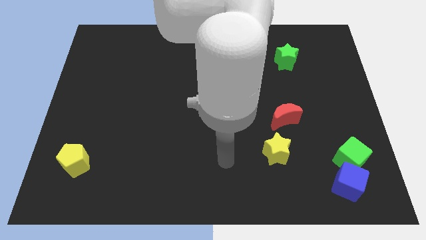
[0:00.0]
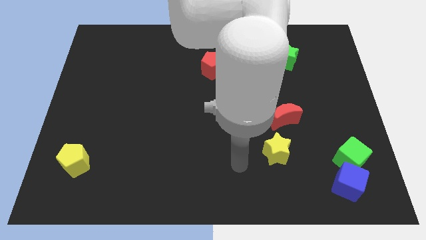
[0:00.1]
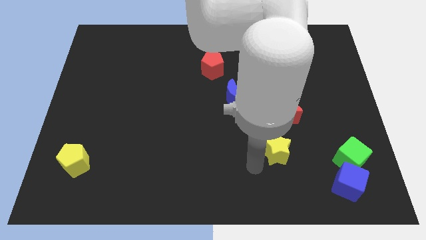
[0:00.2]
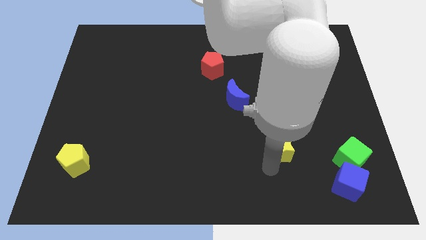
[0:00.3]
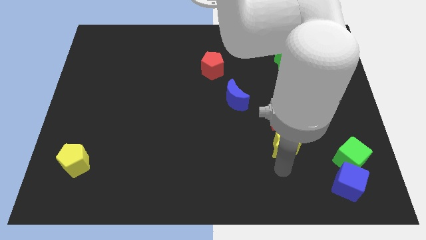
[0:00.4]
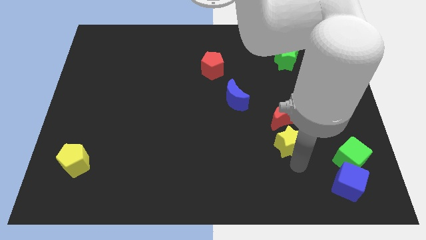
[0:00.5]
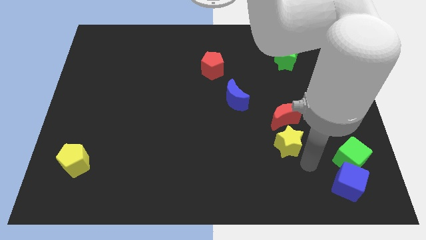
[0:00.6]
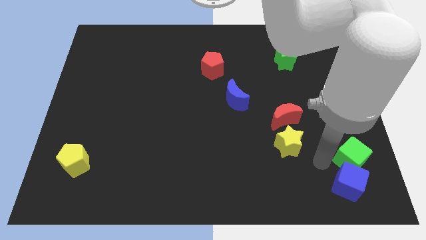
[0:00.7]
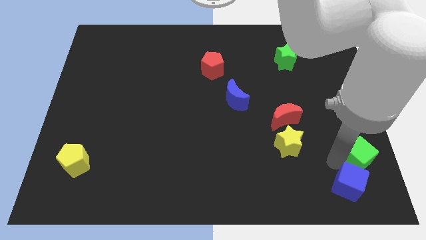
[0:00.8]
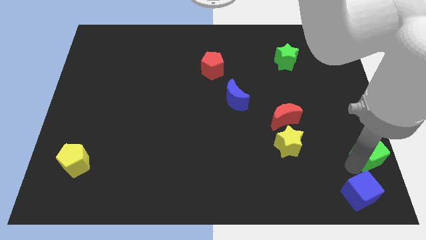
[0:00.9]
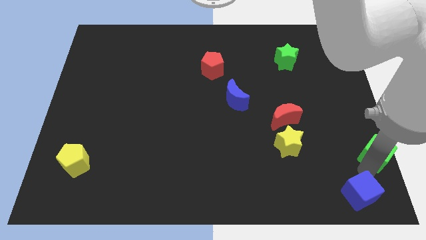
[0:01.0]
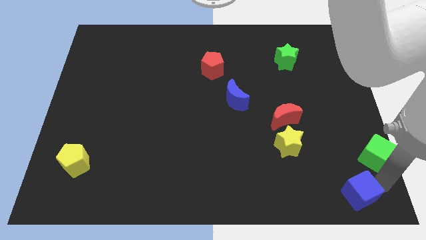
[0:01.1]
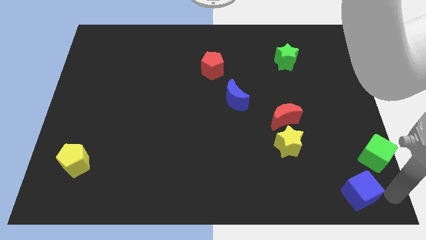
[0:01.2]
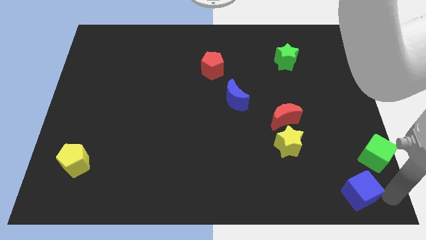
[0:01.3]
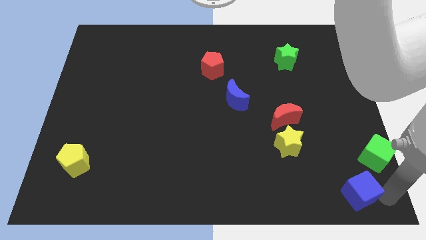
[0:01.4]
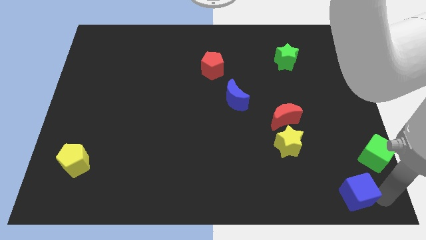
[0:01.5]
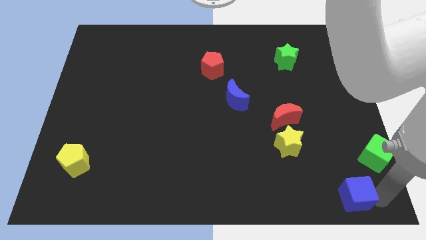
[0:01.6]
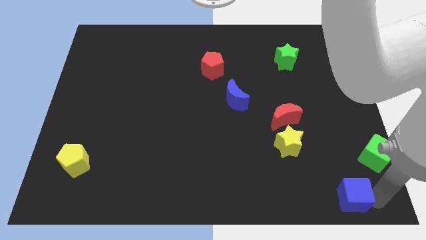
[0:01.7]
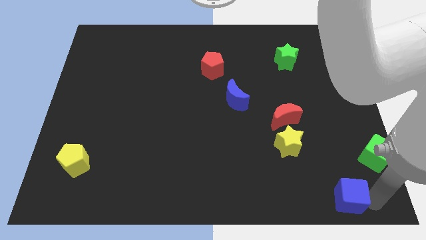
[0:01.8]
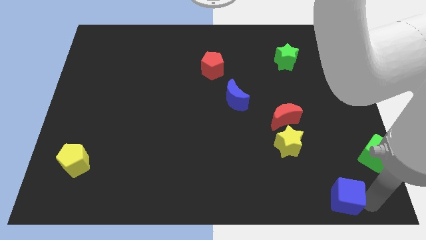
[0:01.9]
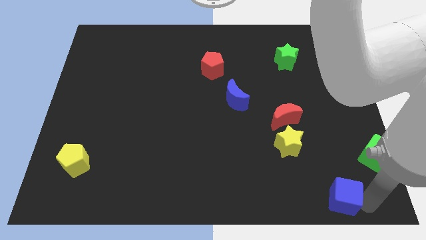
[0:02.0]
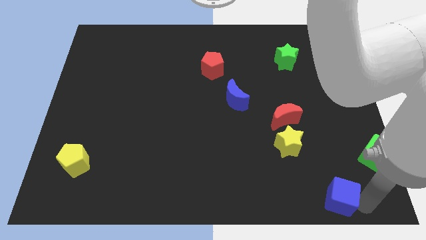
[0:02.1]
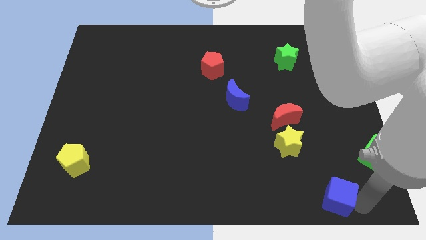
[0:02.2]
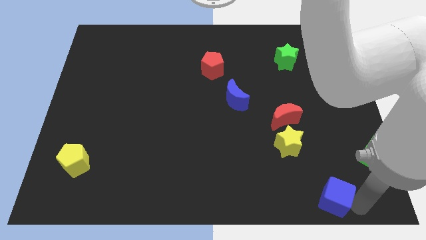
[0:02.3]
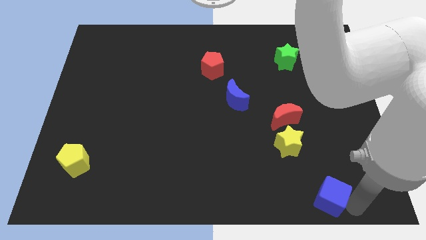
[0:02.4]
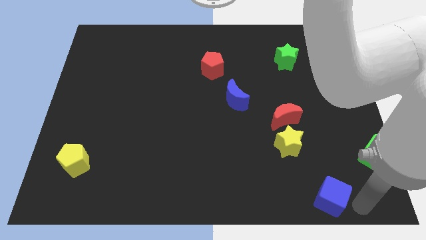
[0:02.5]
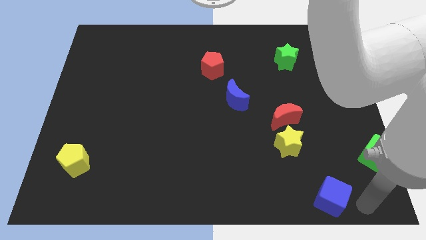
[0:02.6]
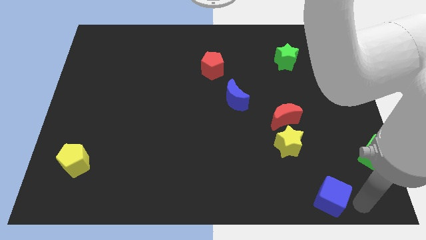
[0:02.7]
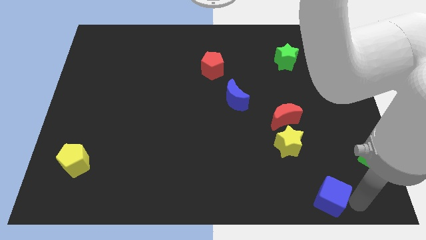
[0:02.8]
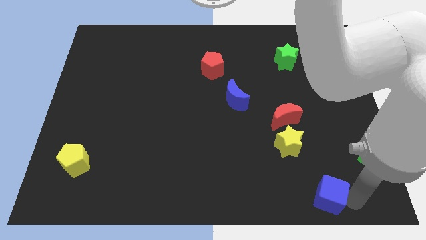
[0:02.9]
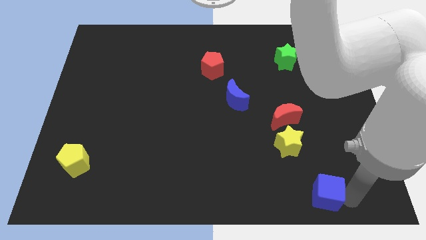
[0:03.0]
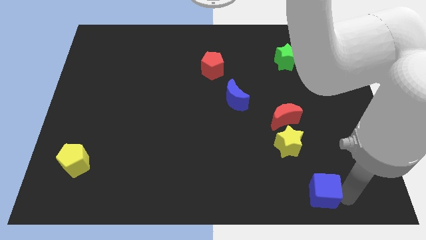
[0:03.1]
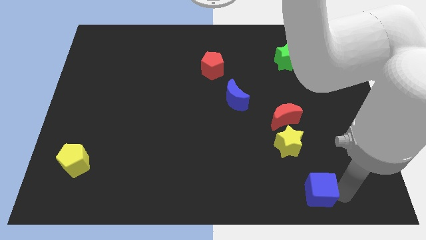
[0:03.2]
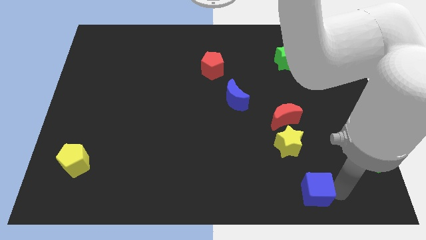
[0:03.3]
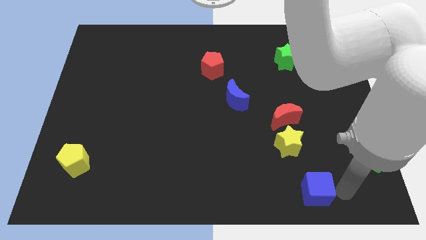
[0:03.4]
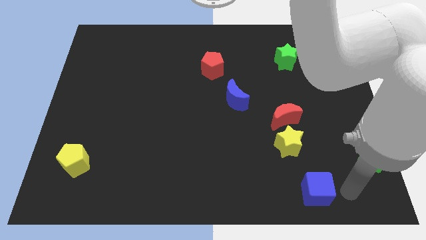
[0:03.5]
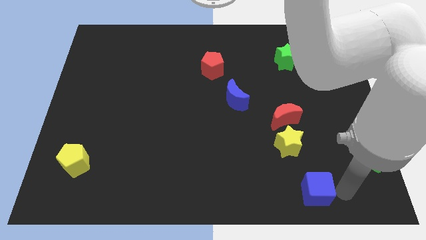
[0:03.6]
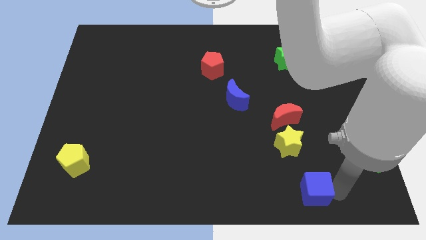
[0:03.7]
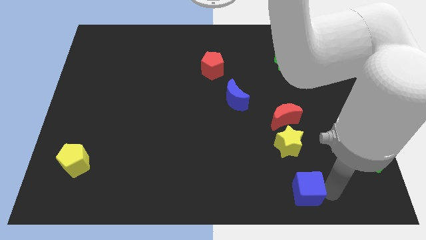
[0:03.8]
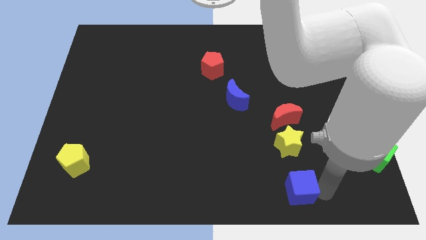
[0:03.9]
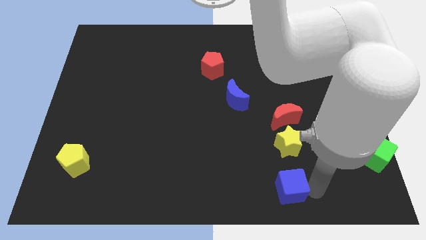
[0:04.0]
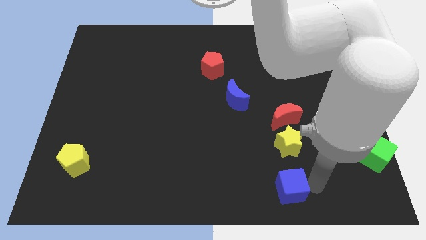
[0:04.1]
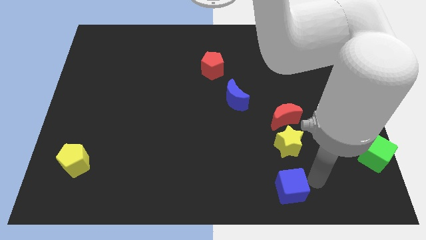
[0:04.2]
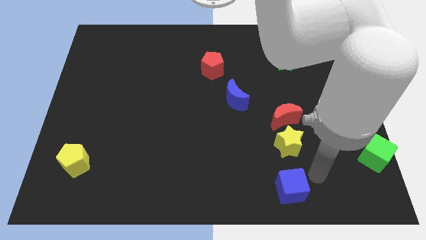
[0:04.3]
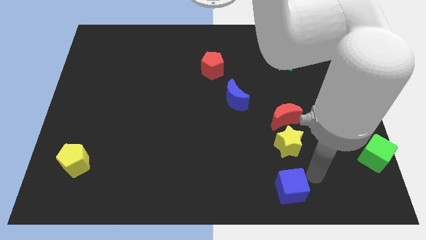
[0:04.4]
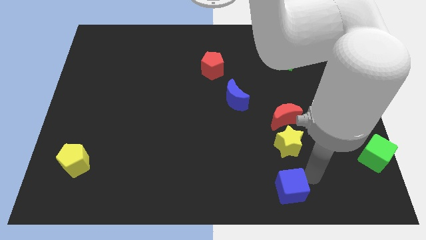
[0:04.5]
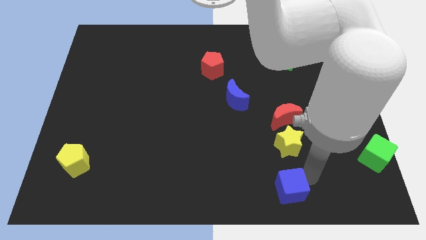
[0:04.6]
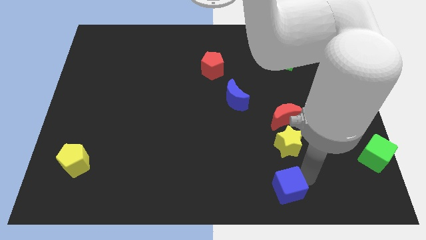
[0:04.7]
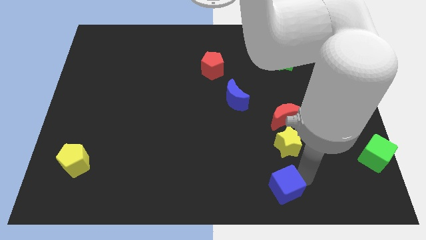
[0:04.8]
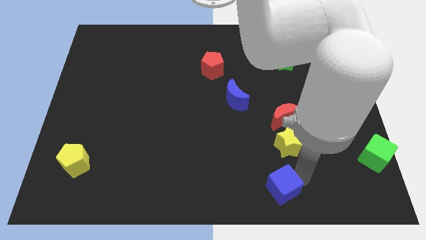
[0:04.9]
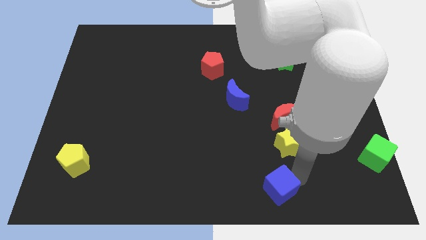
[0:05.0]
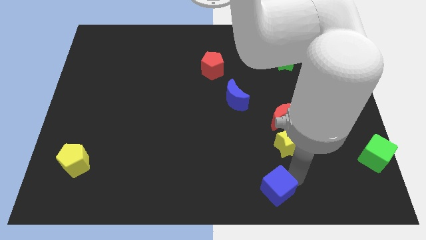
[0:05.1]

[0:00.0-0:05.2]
slide the blue cube to the bottom

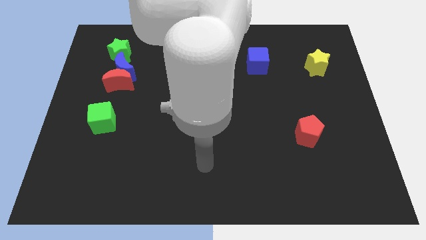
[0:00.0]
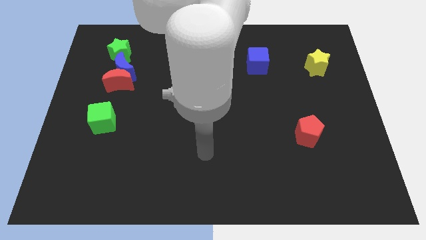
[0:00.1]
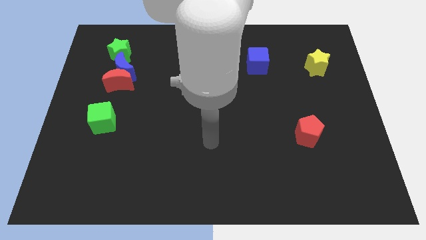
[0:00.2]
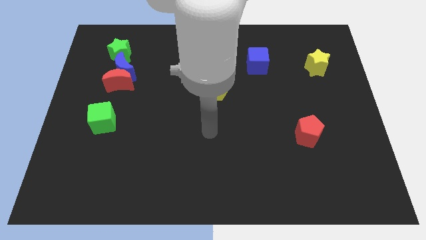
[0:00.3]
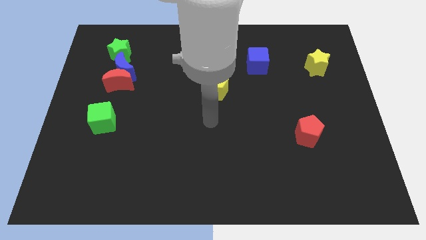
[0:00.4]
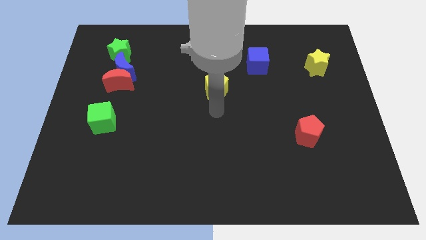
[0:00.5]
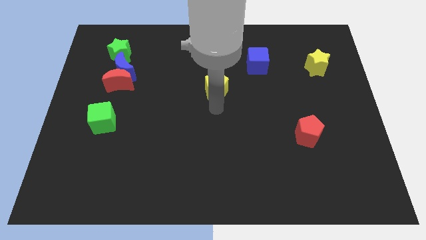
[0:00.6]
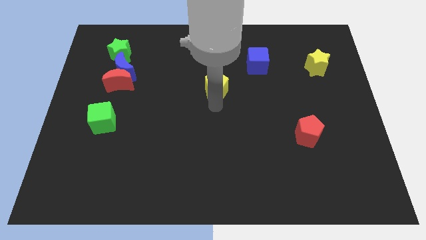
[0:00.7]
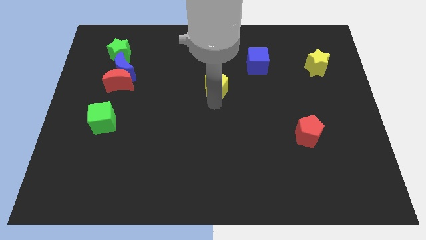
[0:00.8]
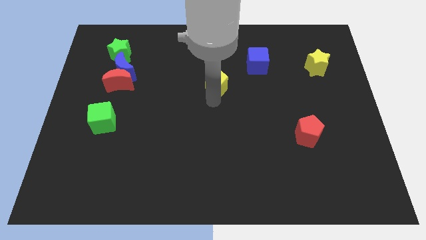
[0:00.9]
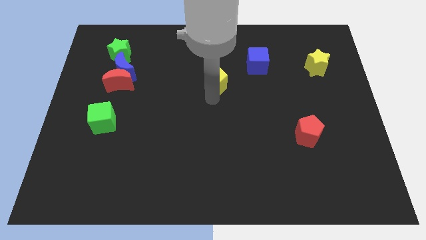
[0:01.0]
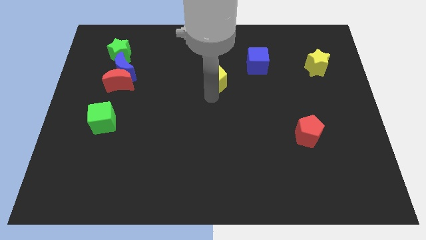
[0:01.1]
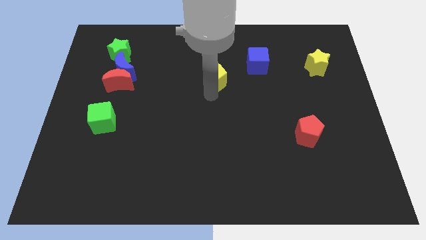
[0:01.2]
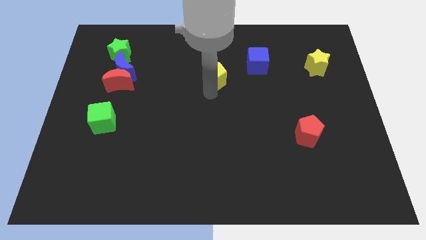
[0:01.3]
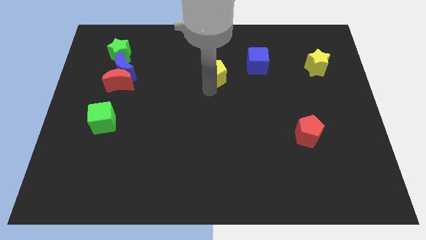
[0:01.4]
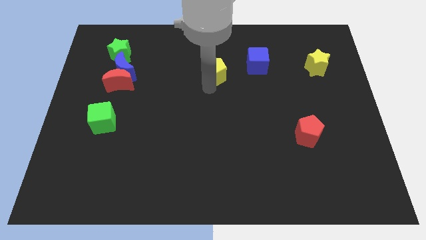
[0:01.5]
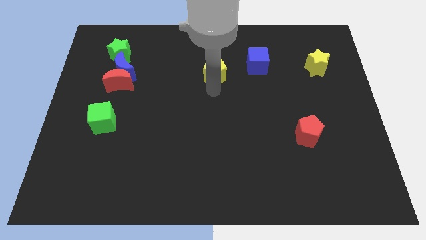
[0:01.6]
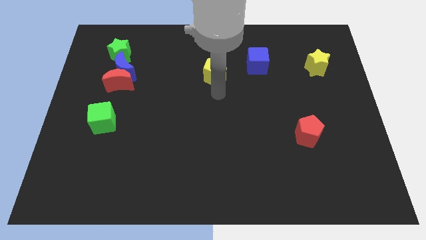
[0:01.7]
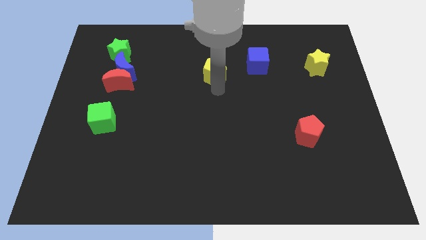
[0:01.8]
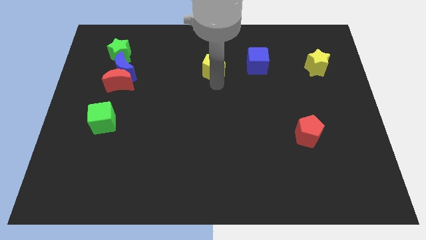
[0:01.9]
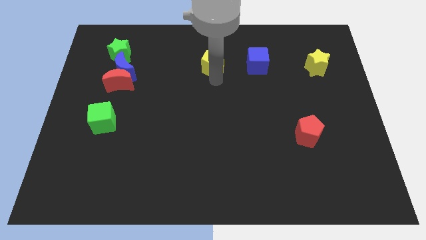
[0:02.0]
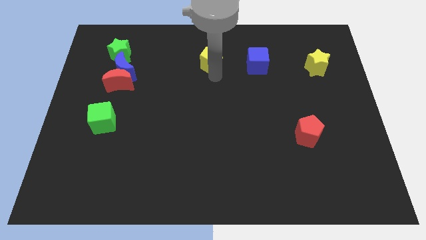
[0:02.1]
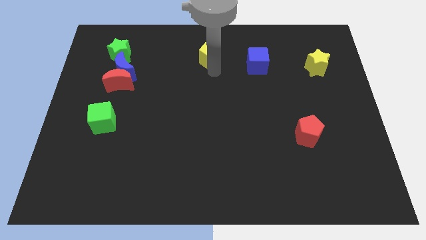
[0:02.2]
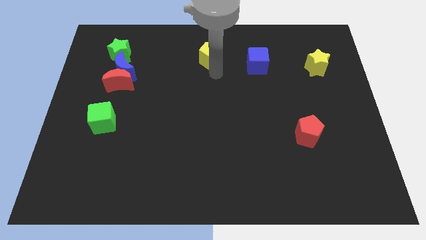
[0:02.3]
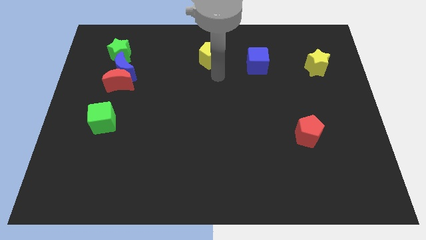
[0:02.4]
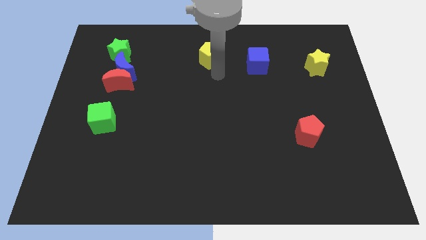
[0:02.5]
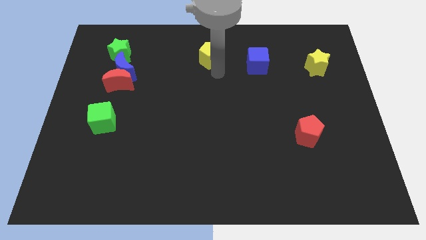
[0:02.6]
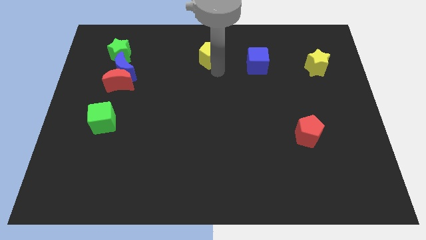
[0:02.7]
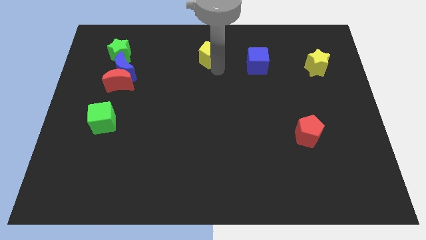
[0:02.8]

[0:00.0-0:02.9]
put the yellow pentagon to the top side
